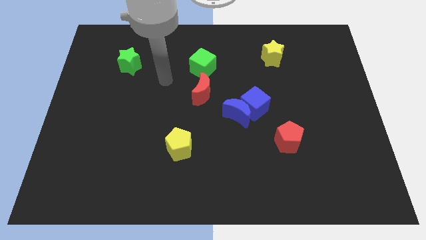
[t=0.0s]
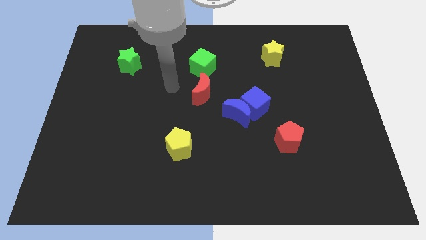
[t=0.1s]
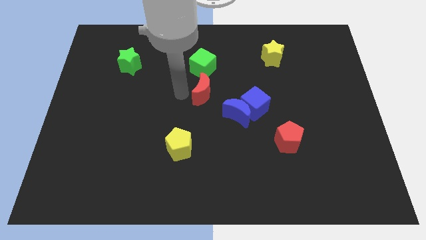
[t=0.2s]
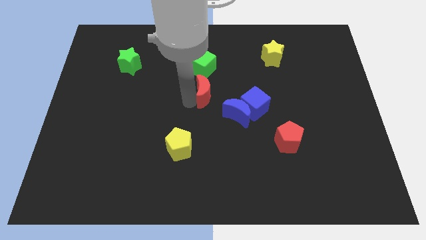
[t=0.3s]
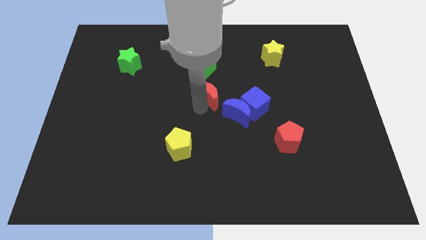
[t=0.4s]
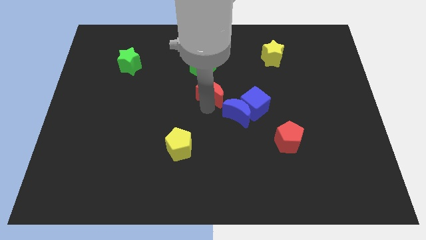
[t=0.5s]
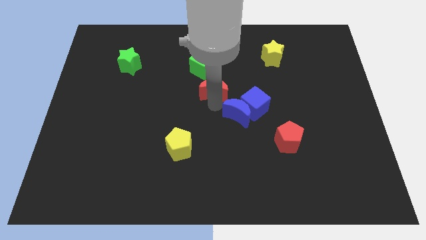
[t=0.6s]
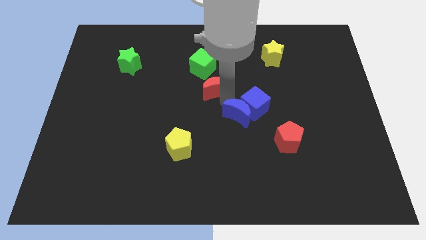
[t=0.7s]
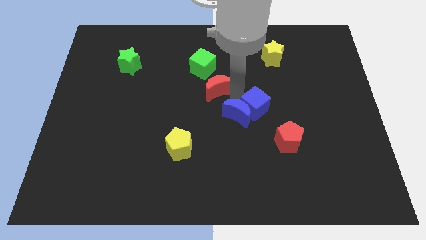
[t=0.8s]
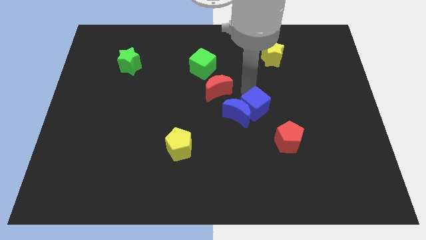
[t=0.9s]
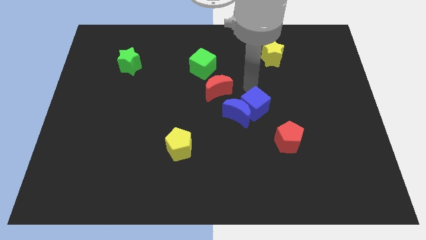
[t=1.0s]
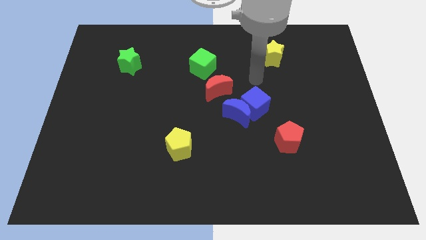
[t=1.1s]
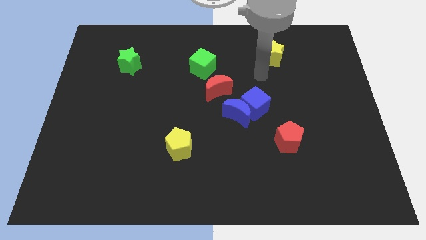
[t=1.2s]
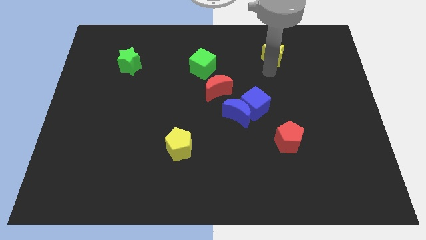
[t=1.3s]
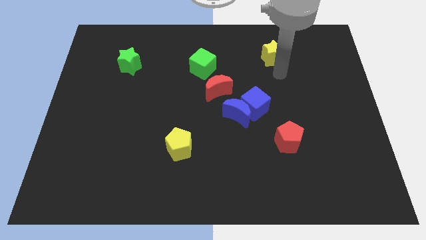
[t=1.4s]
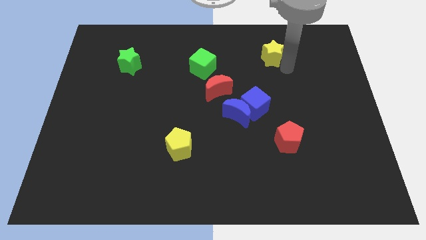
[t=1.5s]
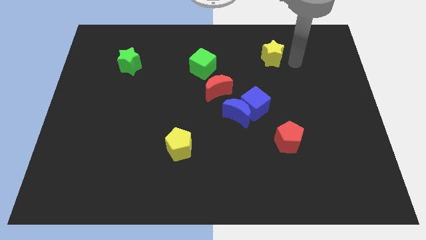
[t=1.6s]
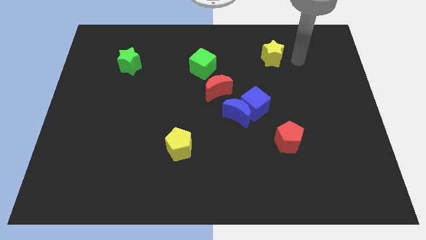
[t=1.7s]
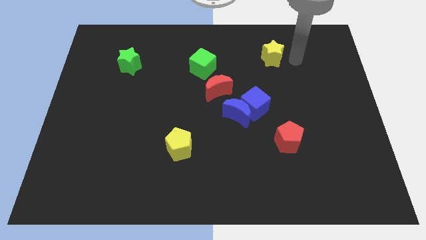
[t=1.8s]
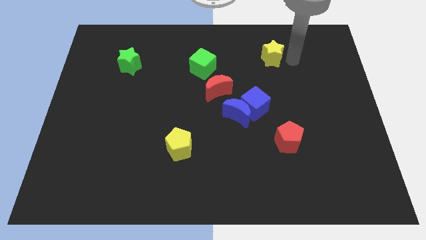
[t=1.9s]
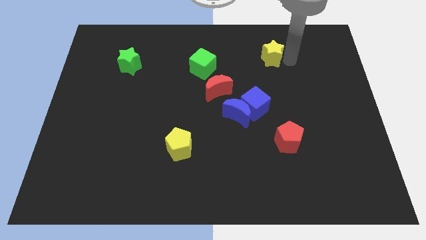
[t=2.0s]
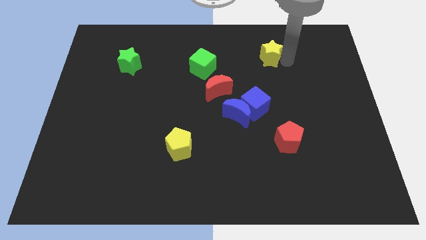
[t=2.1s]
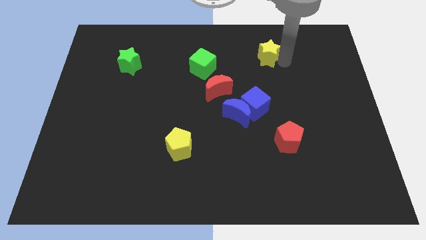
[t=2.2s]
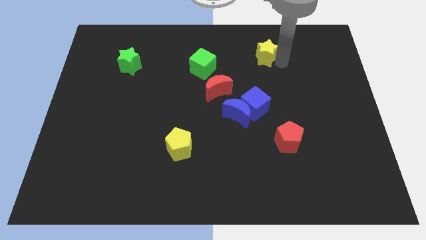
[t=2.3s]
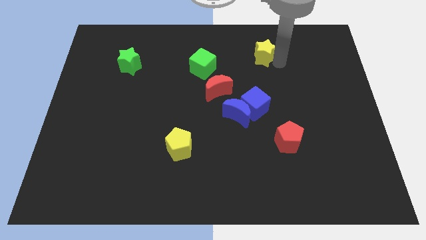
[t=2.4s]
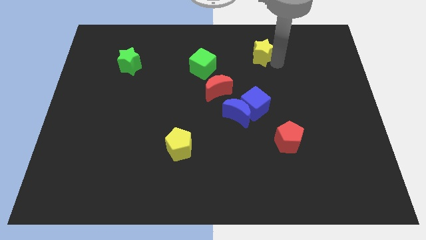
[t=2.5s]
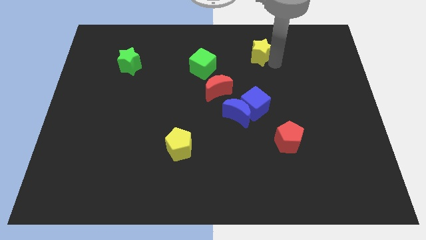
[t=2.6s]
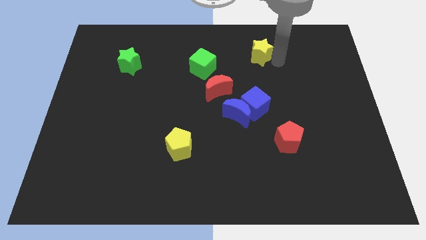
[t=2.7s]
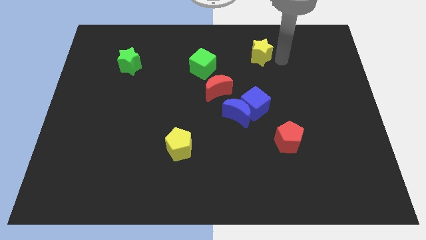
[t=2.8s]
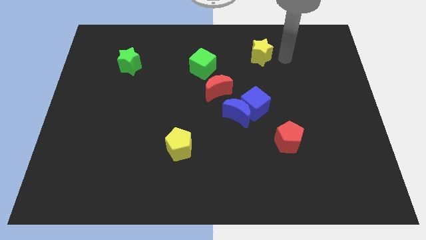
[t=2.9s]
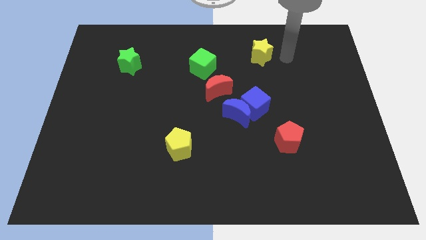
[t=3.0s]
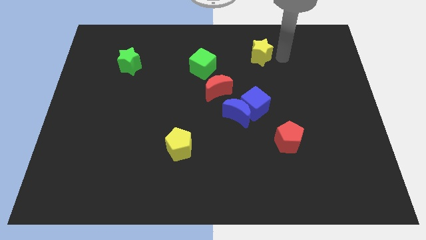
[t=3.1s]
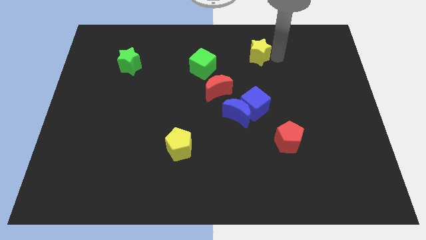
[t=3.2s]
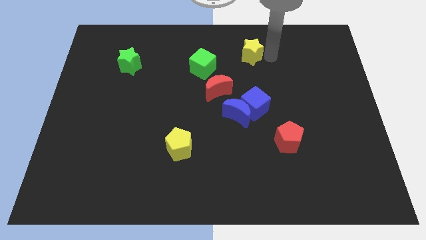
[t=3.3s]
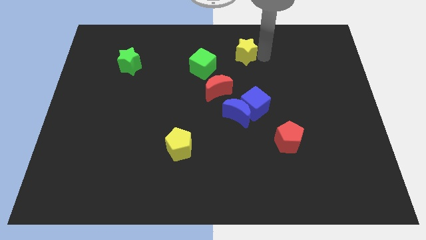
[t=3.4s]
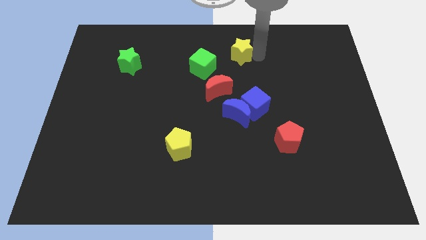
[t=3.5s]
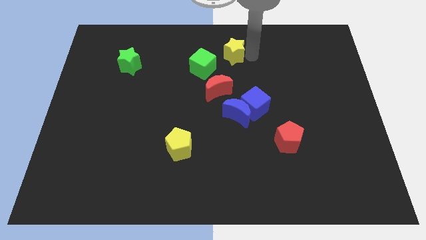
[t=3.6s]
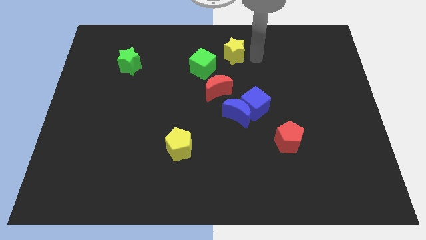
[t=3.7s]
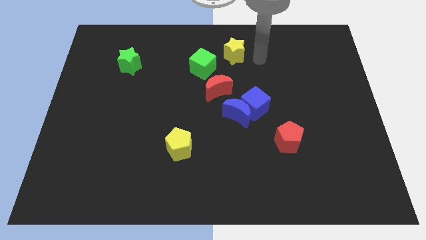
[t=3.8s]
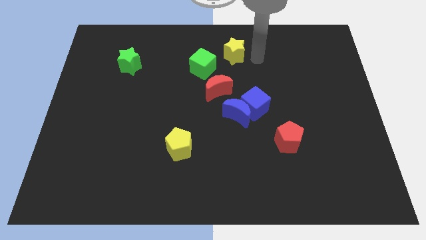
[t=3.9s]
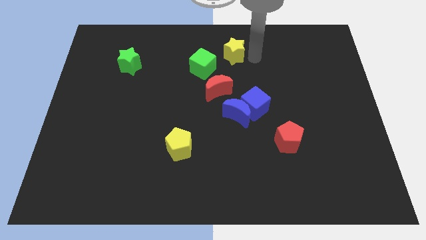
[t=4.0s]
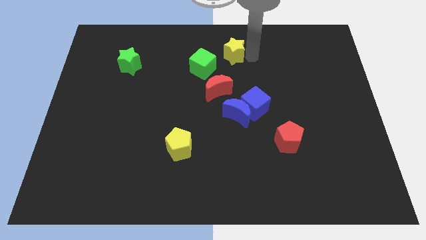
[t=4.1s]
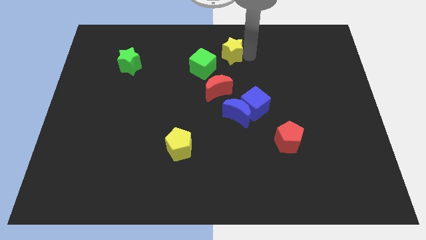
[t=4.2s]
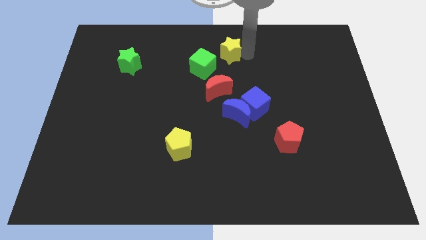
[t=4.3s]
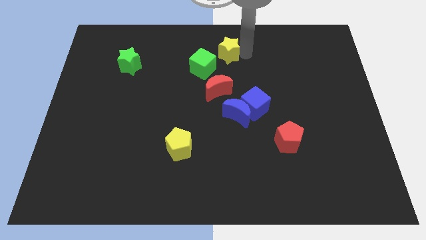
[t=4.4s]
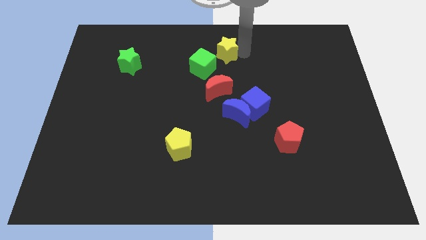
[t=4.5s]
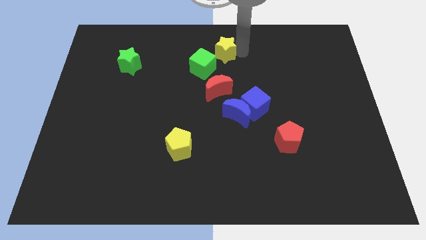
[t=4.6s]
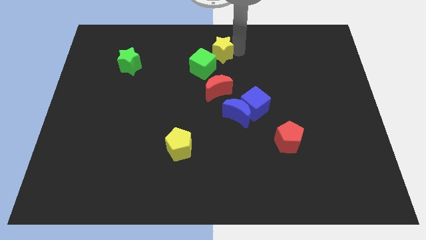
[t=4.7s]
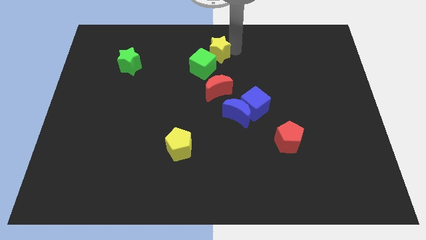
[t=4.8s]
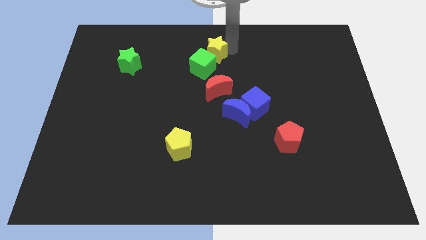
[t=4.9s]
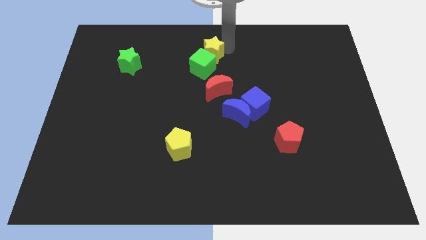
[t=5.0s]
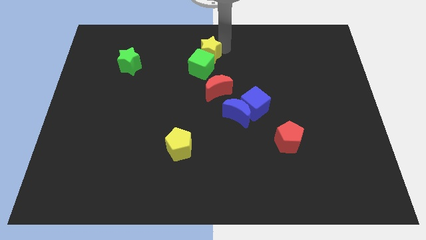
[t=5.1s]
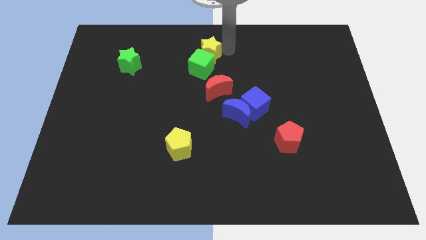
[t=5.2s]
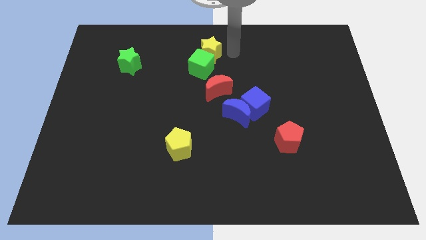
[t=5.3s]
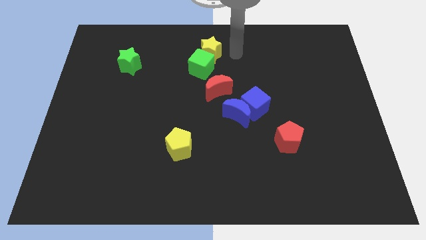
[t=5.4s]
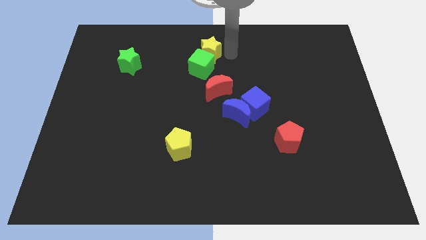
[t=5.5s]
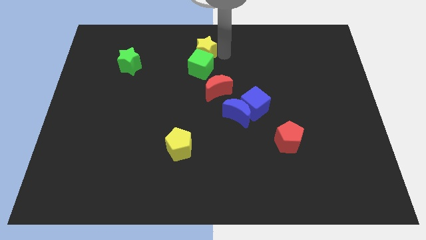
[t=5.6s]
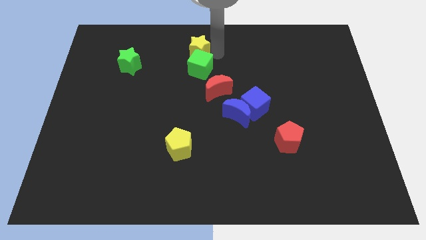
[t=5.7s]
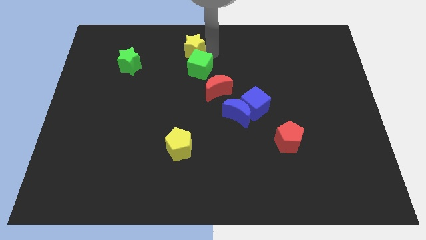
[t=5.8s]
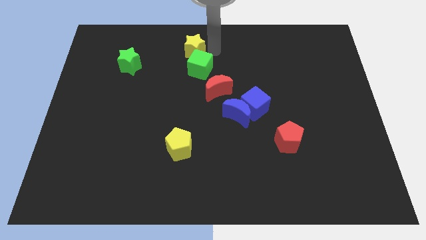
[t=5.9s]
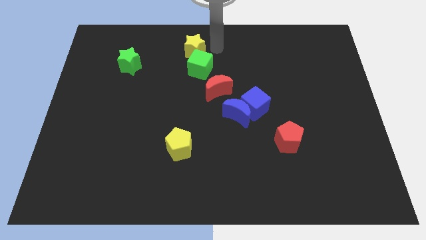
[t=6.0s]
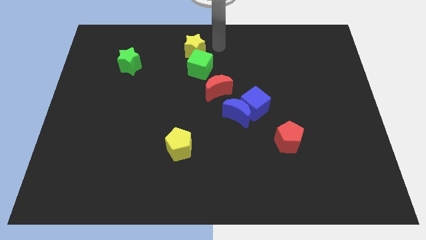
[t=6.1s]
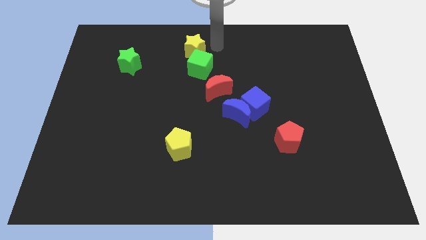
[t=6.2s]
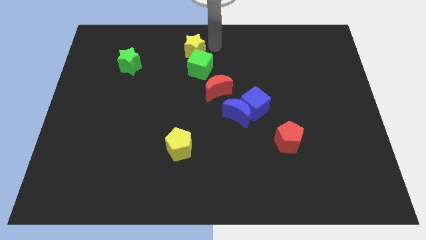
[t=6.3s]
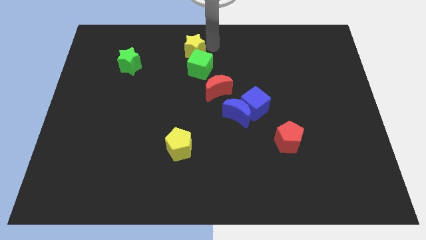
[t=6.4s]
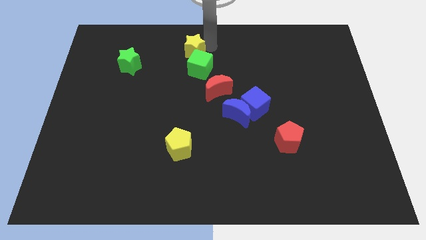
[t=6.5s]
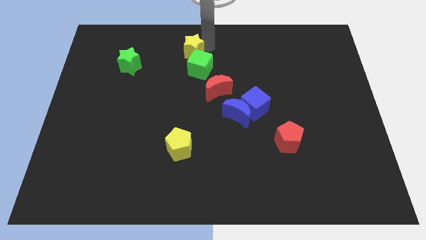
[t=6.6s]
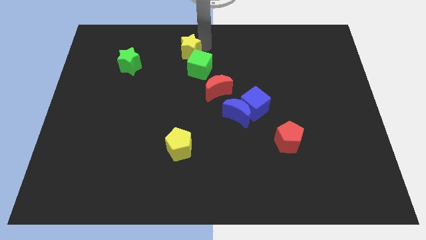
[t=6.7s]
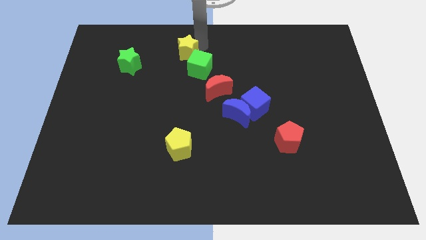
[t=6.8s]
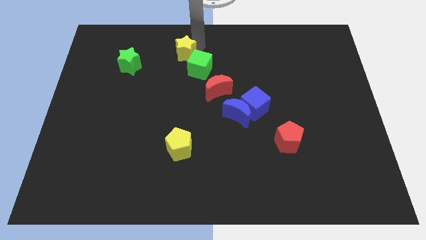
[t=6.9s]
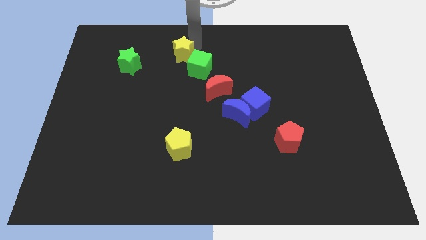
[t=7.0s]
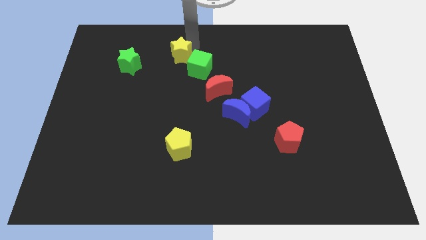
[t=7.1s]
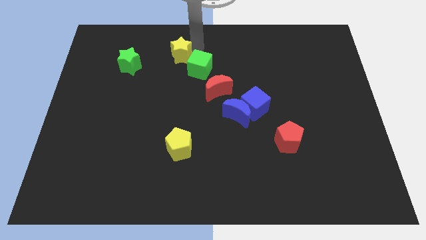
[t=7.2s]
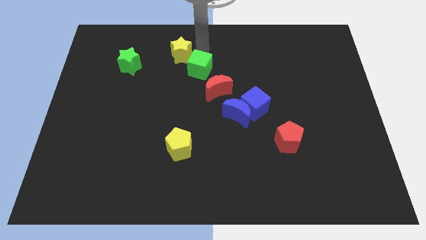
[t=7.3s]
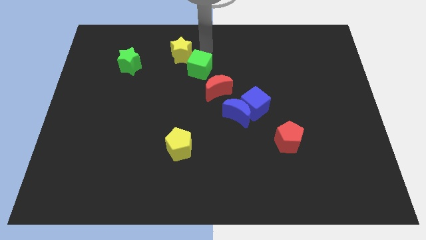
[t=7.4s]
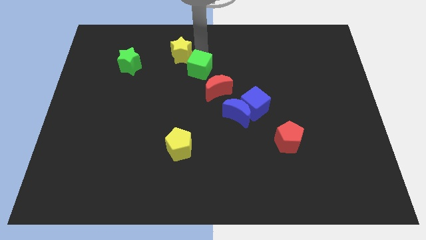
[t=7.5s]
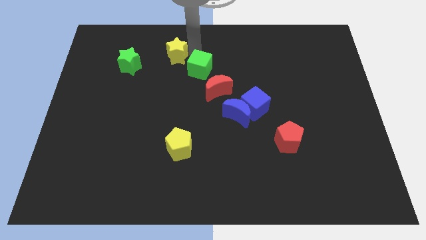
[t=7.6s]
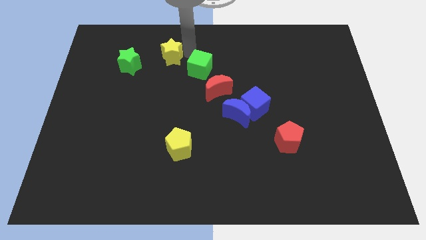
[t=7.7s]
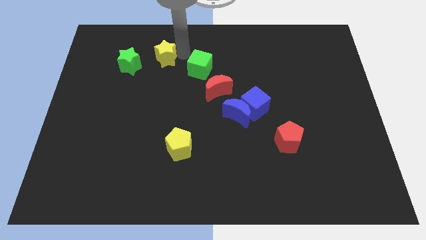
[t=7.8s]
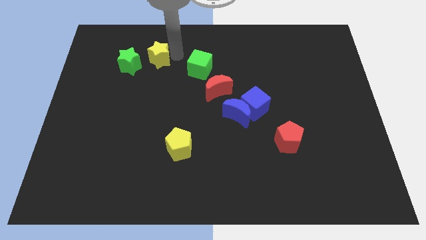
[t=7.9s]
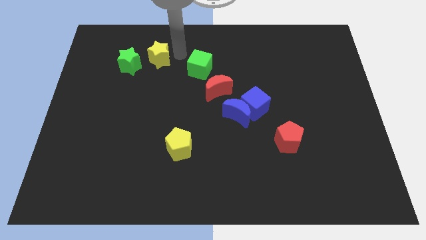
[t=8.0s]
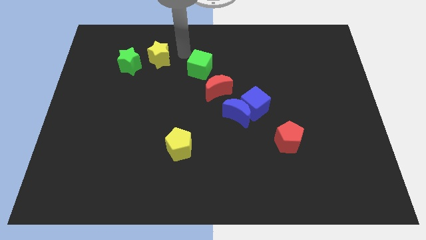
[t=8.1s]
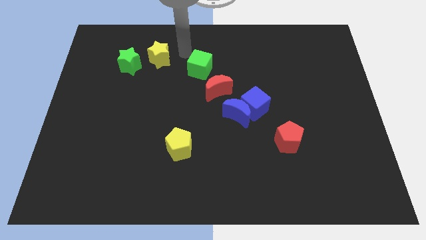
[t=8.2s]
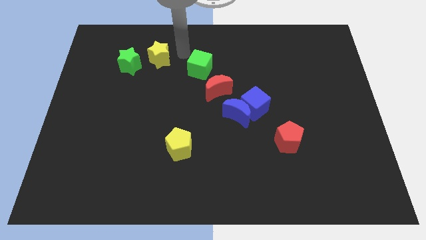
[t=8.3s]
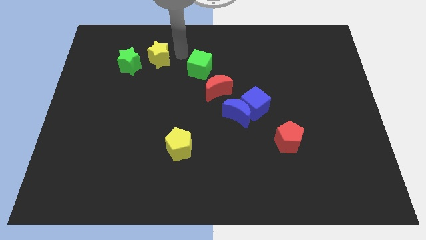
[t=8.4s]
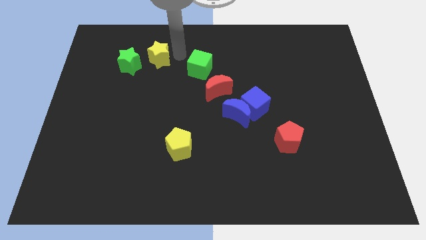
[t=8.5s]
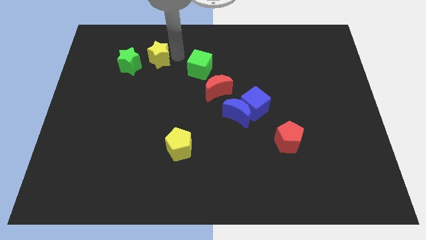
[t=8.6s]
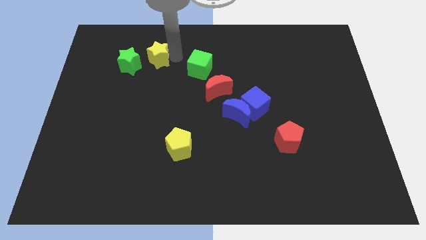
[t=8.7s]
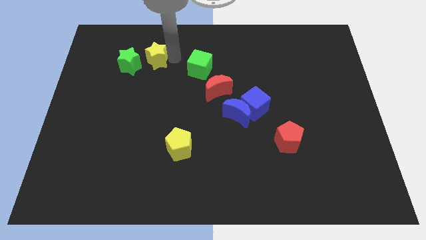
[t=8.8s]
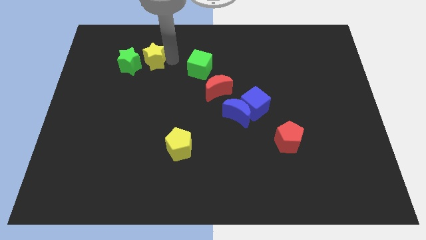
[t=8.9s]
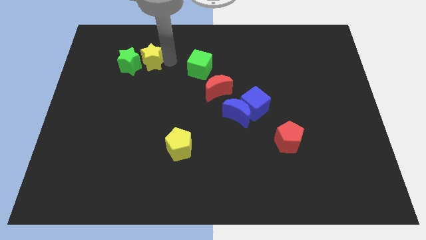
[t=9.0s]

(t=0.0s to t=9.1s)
push the yellow star towards the green star
